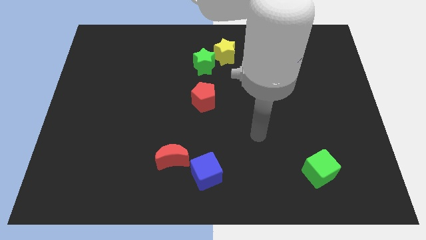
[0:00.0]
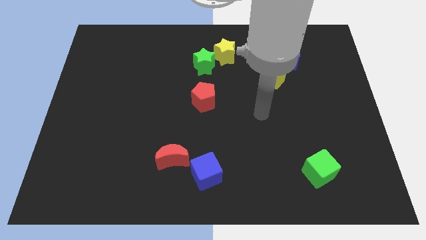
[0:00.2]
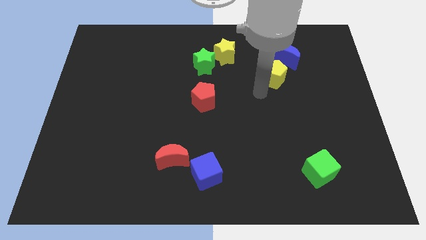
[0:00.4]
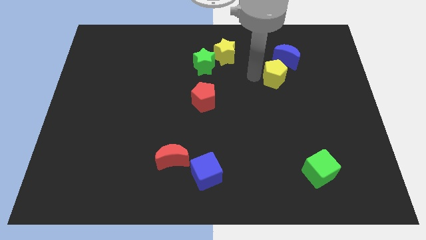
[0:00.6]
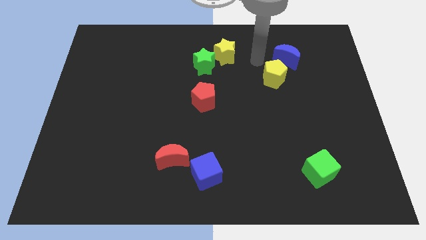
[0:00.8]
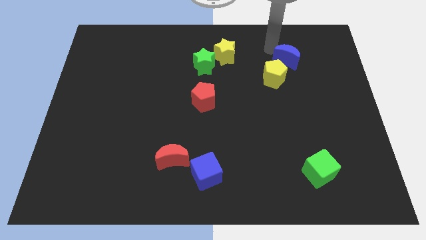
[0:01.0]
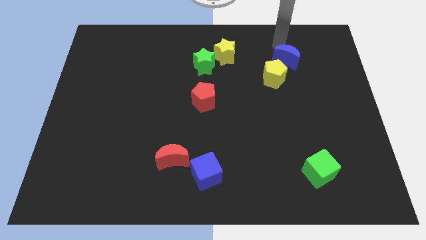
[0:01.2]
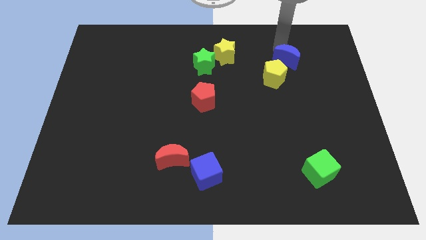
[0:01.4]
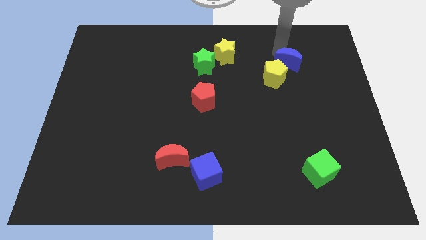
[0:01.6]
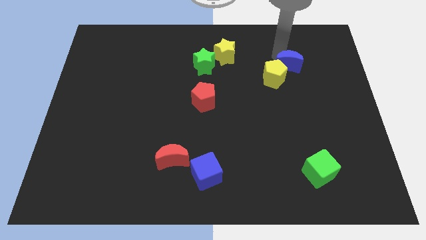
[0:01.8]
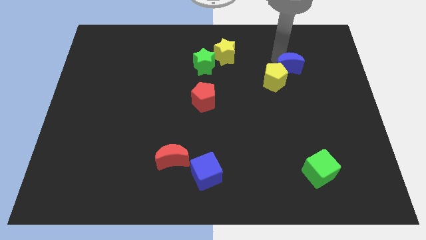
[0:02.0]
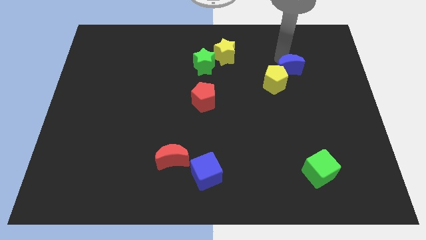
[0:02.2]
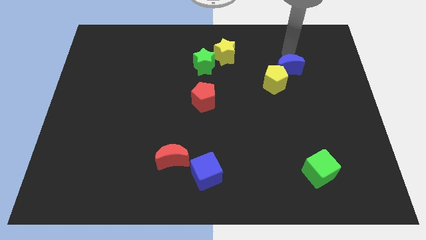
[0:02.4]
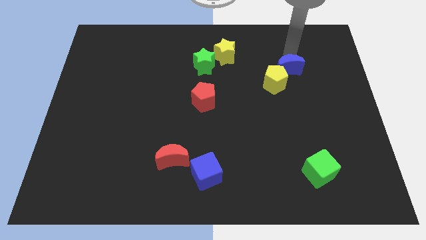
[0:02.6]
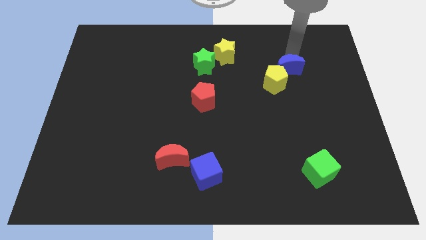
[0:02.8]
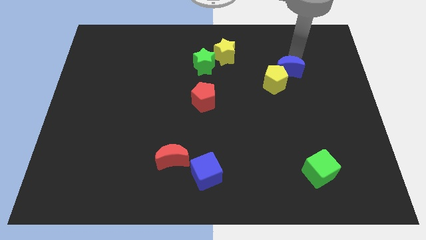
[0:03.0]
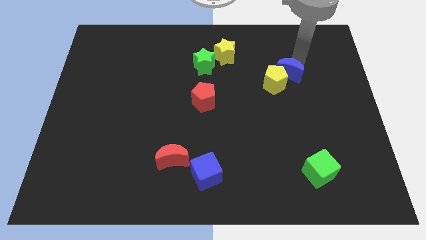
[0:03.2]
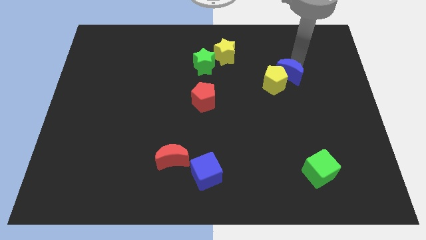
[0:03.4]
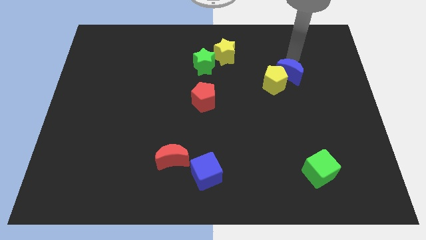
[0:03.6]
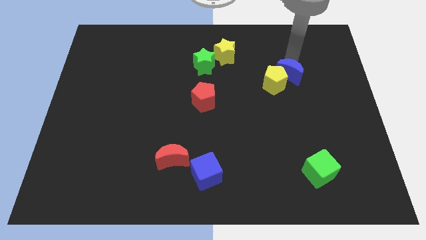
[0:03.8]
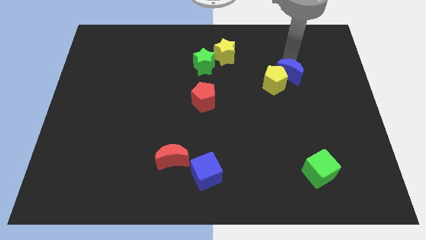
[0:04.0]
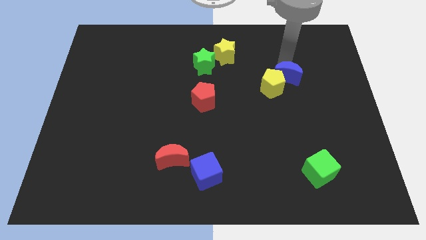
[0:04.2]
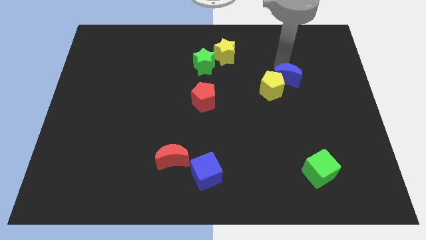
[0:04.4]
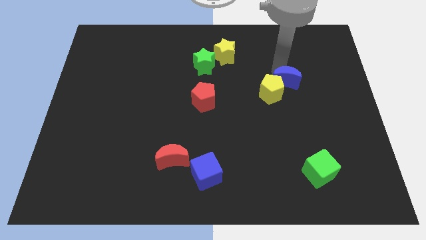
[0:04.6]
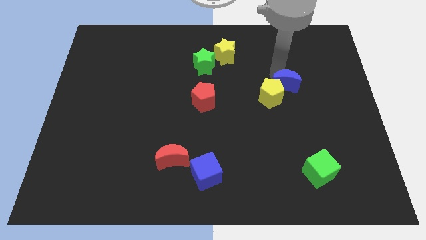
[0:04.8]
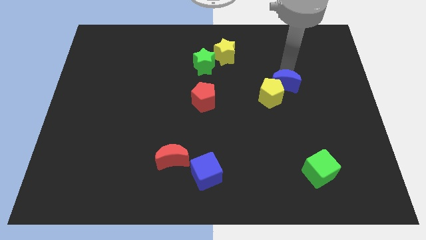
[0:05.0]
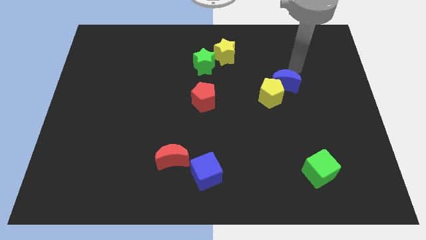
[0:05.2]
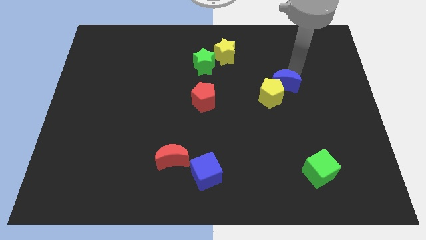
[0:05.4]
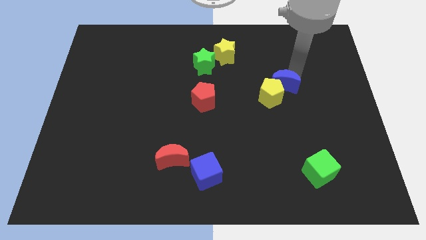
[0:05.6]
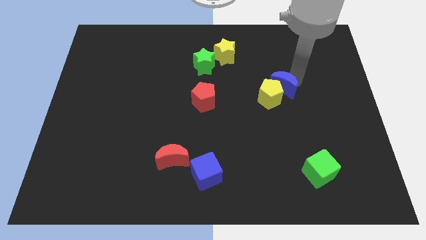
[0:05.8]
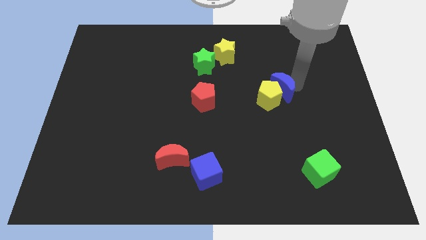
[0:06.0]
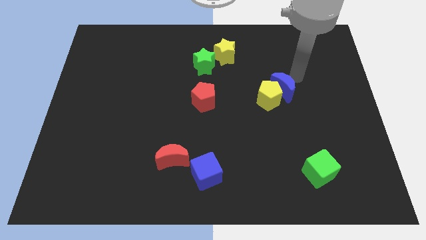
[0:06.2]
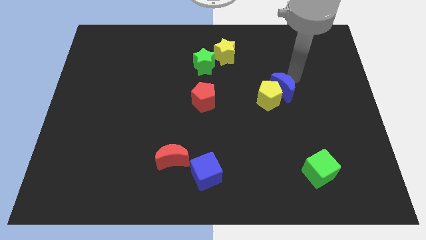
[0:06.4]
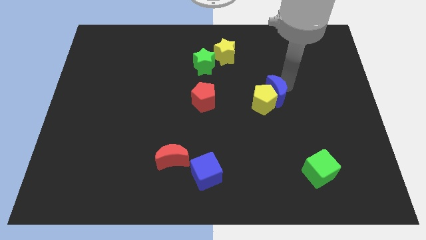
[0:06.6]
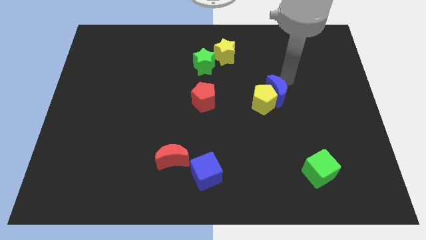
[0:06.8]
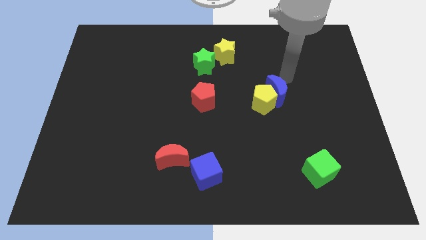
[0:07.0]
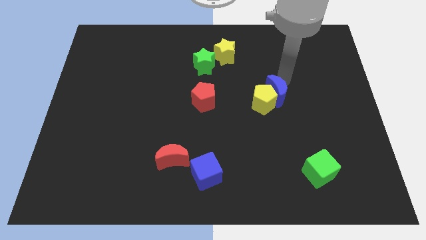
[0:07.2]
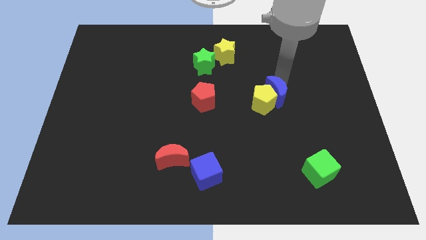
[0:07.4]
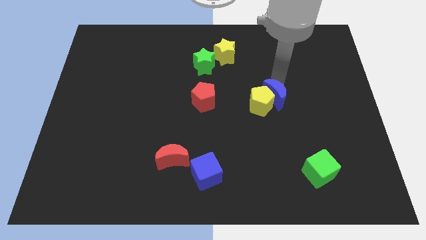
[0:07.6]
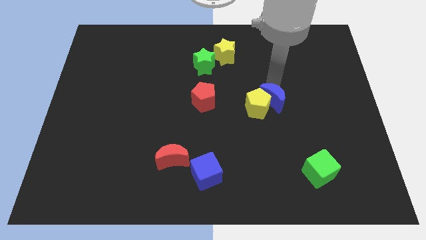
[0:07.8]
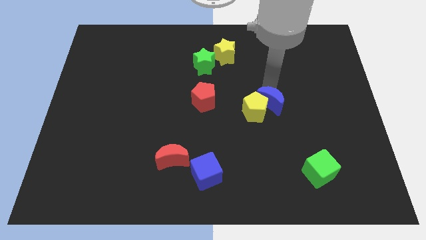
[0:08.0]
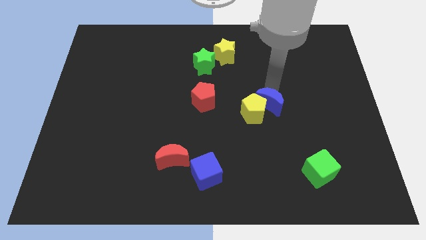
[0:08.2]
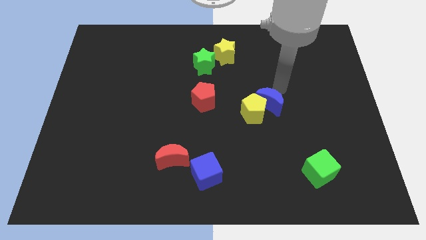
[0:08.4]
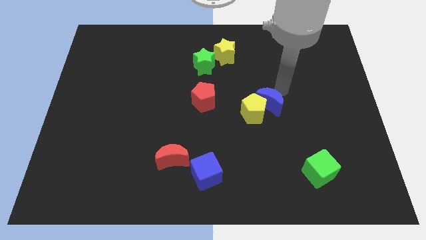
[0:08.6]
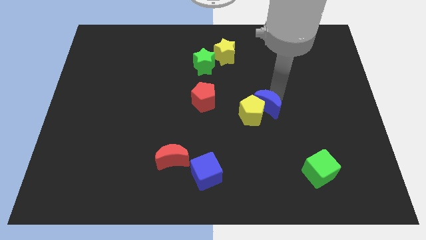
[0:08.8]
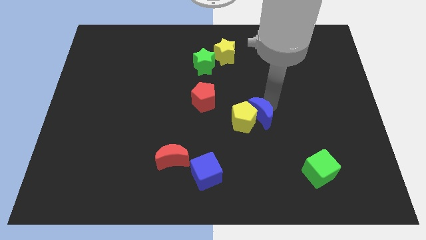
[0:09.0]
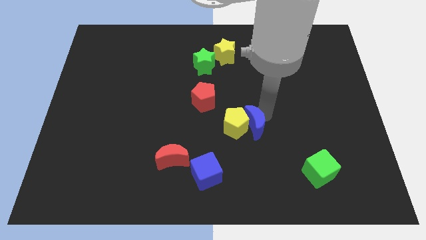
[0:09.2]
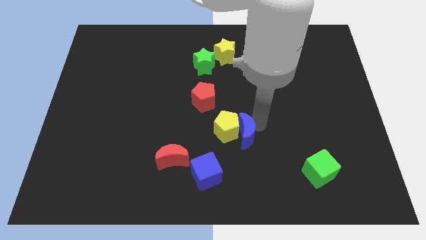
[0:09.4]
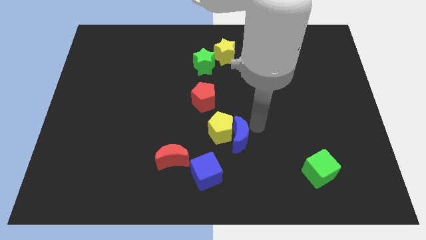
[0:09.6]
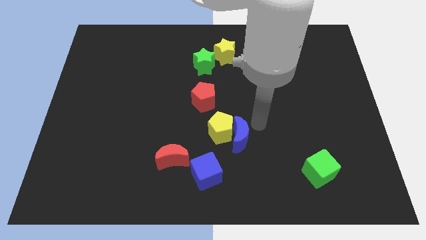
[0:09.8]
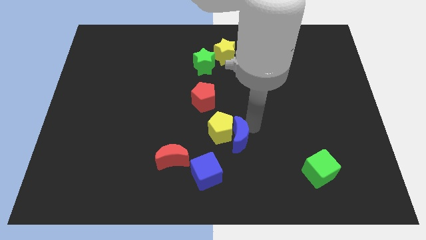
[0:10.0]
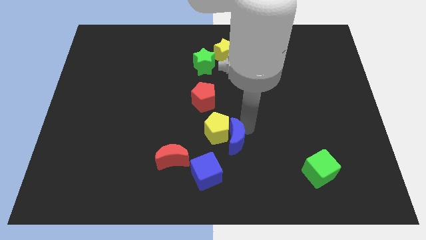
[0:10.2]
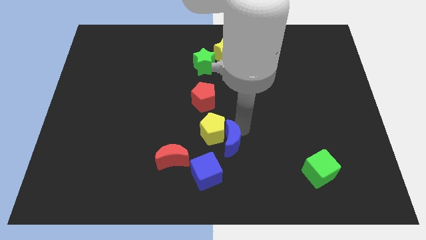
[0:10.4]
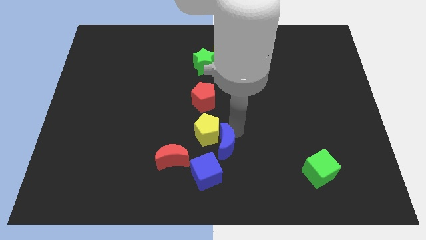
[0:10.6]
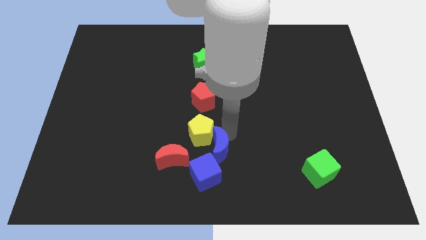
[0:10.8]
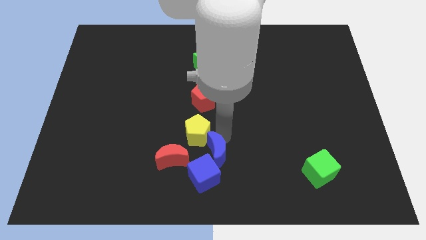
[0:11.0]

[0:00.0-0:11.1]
put the blue moon to the blue cube
